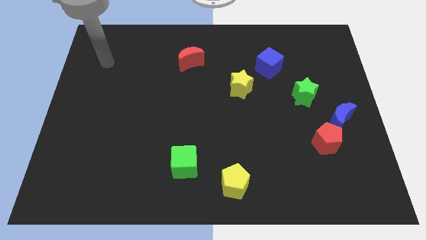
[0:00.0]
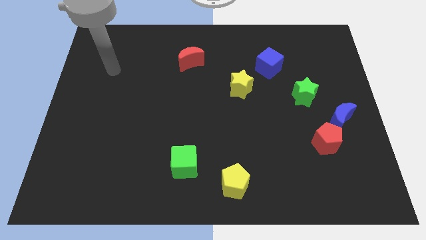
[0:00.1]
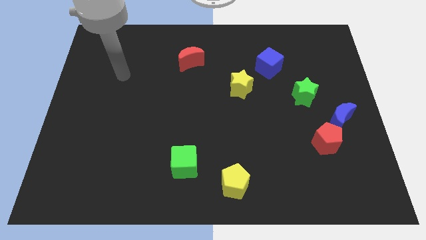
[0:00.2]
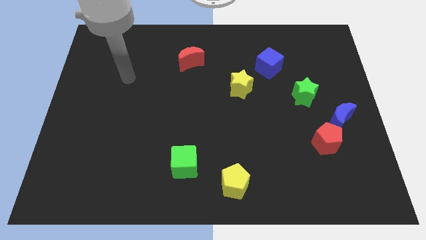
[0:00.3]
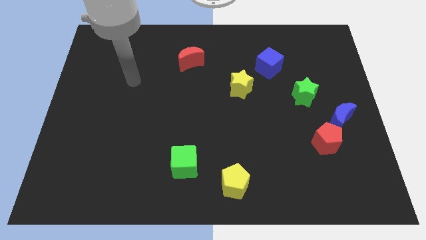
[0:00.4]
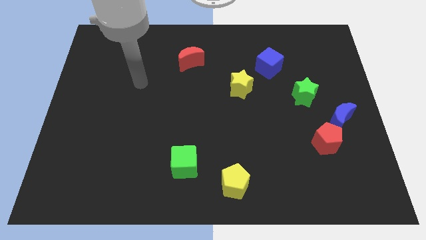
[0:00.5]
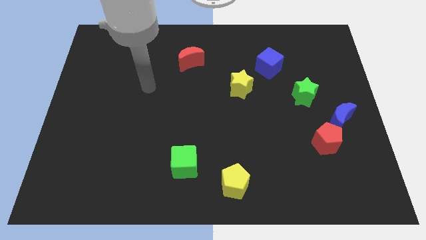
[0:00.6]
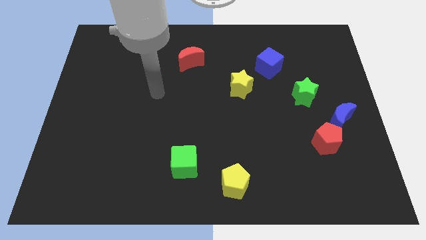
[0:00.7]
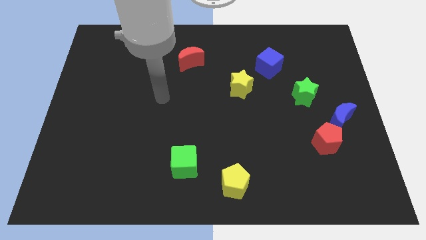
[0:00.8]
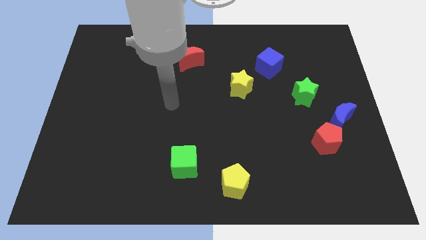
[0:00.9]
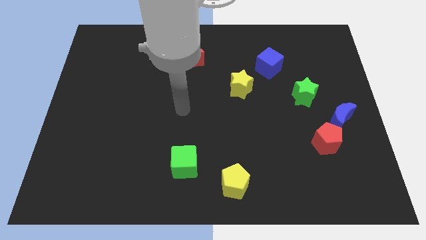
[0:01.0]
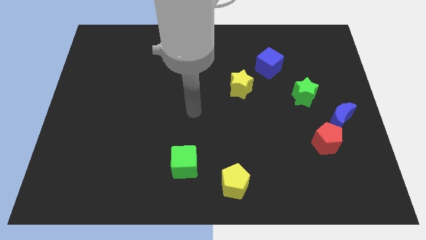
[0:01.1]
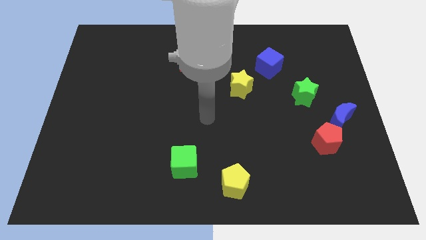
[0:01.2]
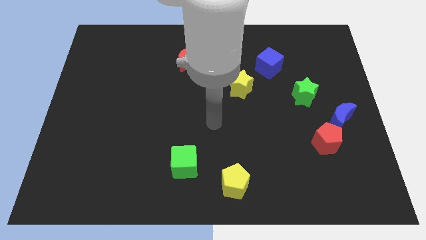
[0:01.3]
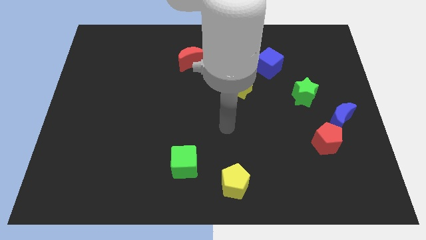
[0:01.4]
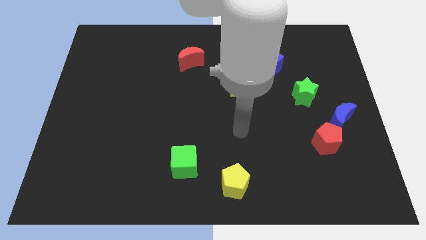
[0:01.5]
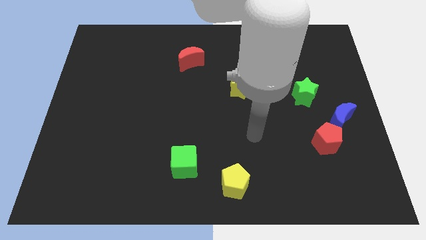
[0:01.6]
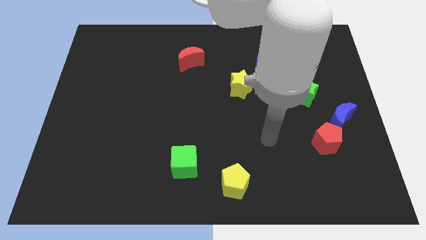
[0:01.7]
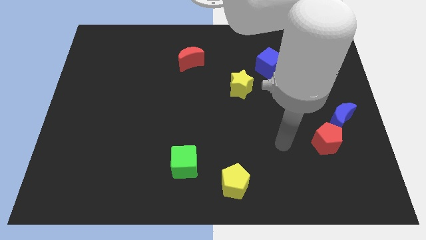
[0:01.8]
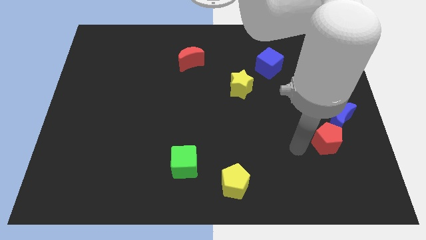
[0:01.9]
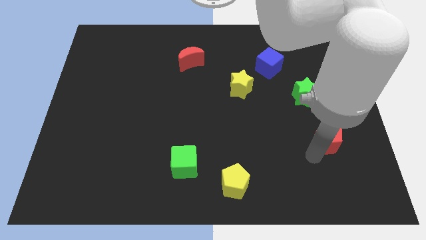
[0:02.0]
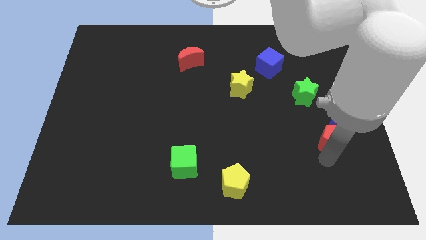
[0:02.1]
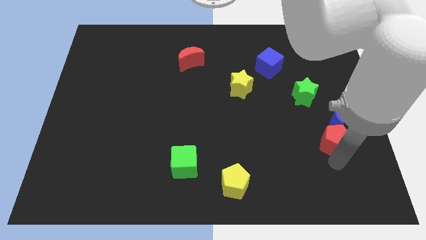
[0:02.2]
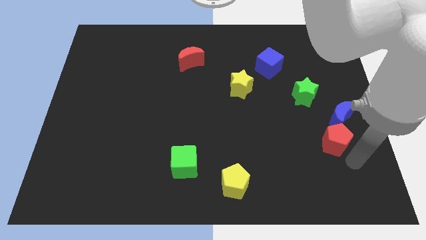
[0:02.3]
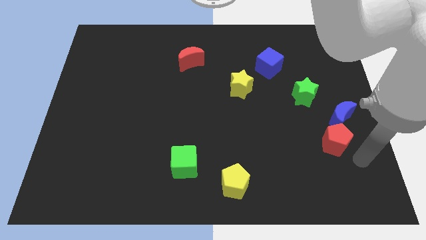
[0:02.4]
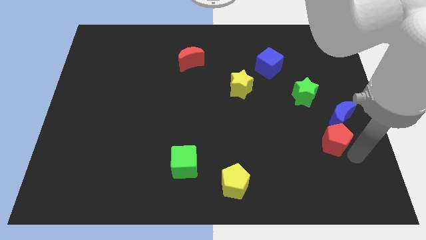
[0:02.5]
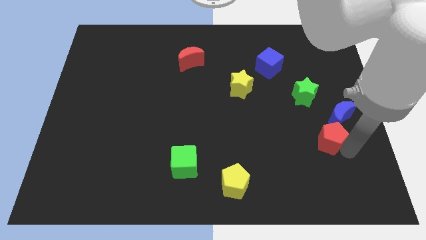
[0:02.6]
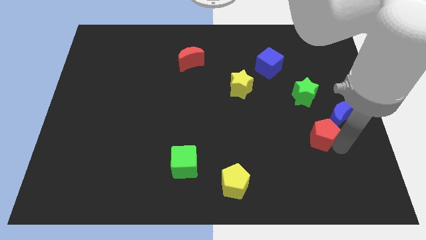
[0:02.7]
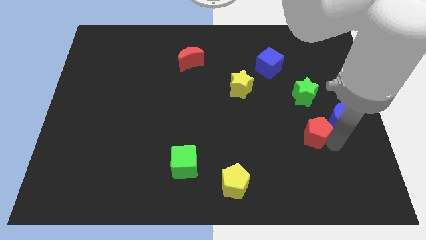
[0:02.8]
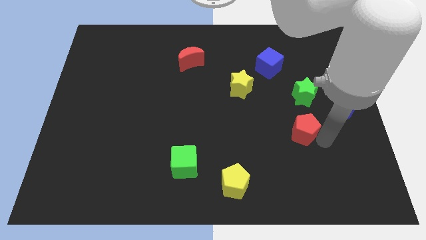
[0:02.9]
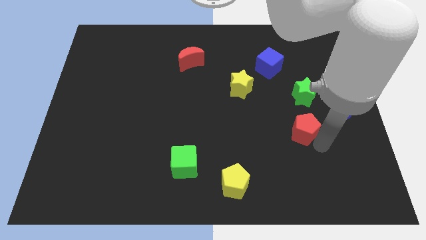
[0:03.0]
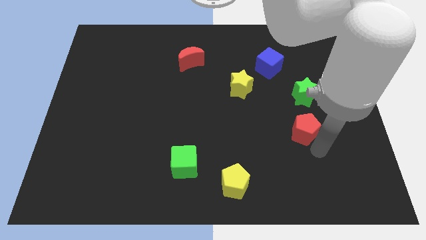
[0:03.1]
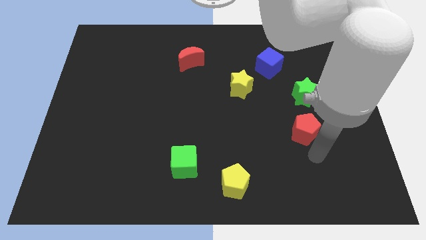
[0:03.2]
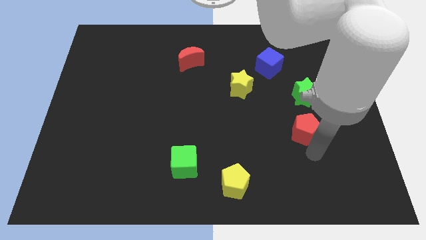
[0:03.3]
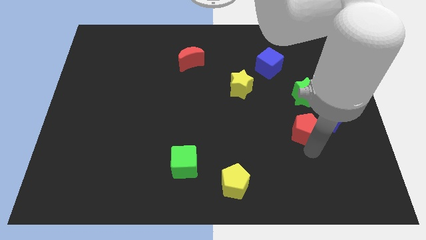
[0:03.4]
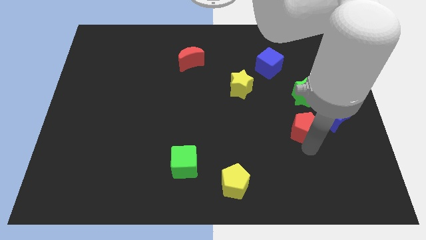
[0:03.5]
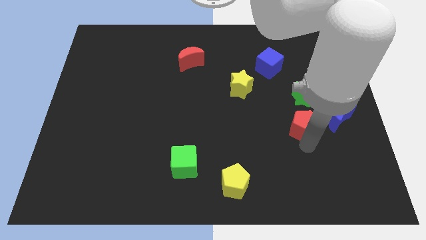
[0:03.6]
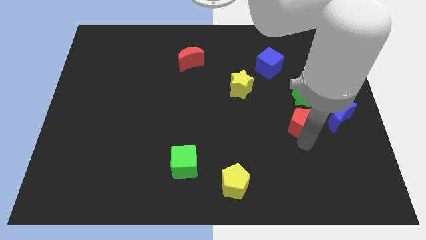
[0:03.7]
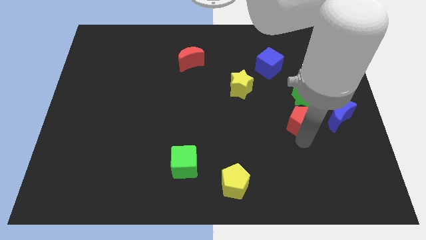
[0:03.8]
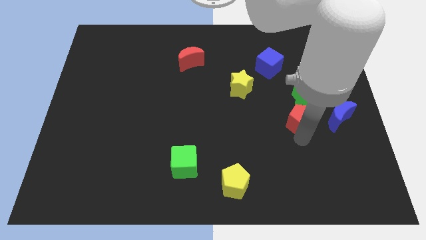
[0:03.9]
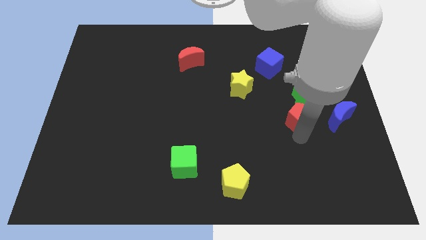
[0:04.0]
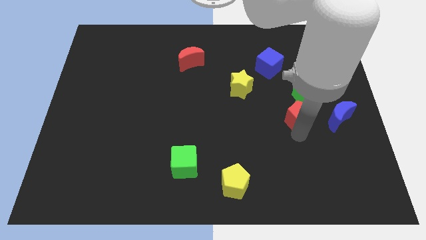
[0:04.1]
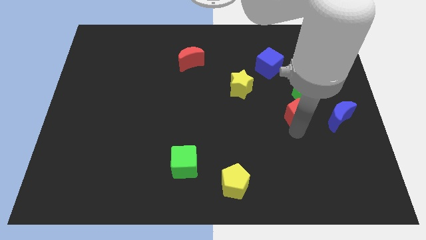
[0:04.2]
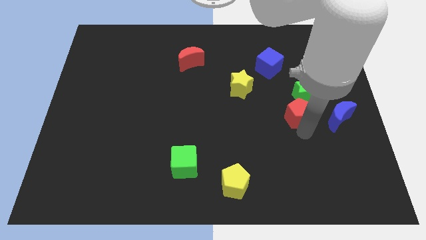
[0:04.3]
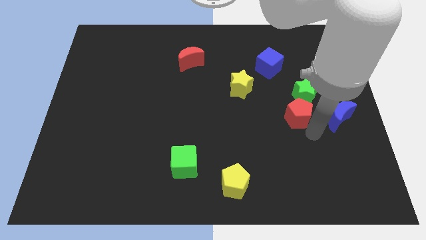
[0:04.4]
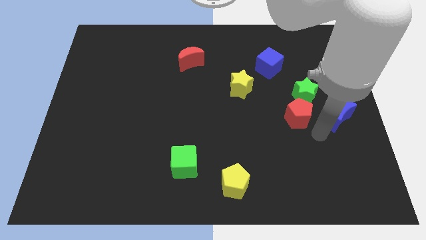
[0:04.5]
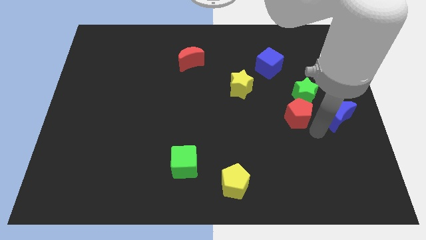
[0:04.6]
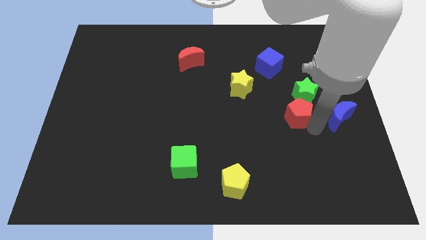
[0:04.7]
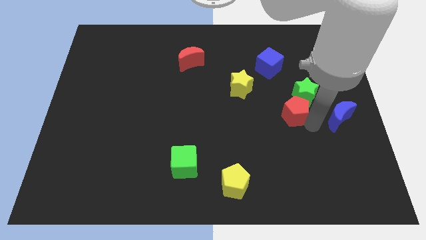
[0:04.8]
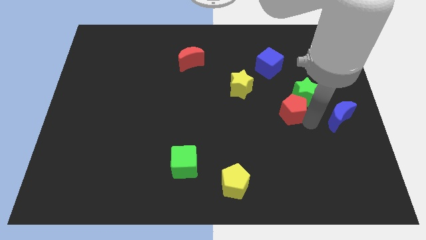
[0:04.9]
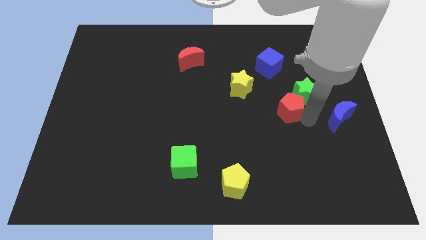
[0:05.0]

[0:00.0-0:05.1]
put the red pentagon to the bottom of the blue cube

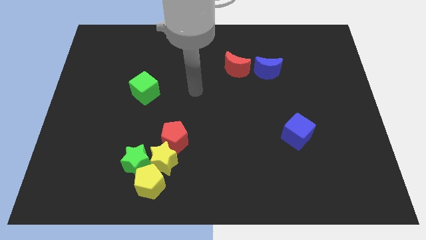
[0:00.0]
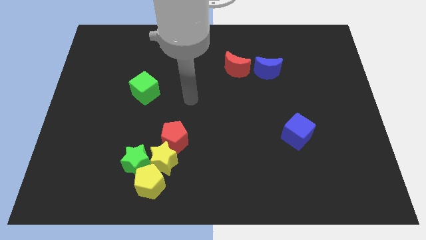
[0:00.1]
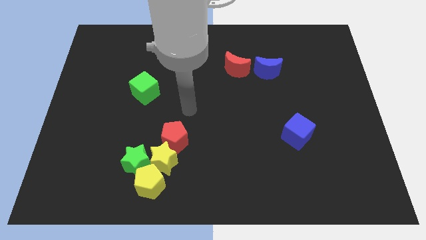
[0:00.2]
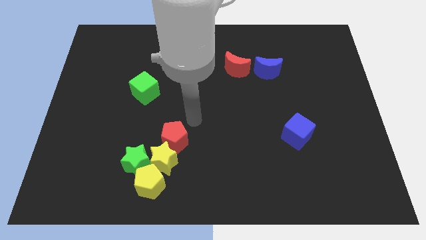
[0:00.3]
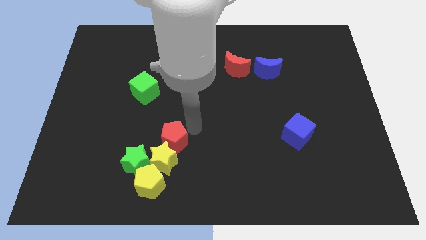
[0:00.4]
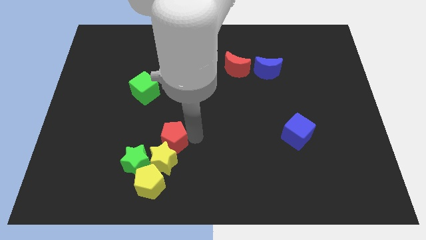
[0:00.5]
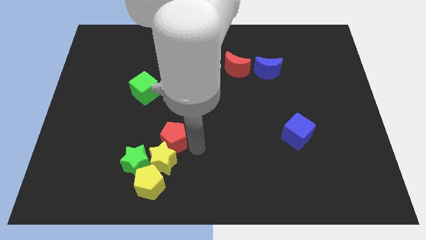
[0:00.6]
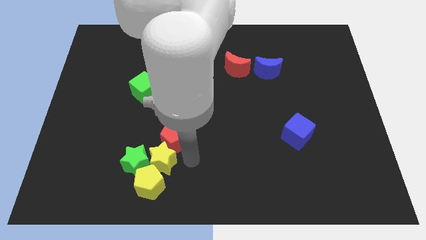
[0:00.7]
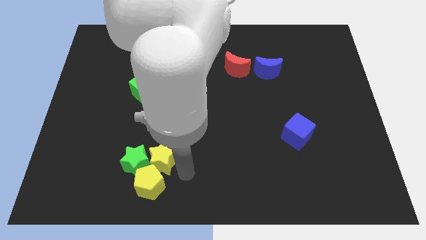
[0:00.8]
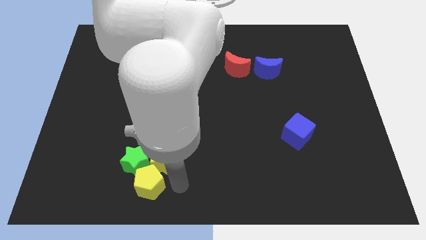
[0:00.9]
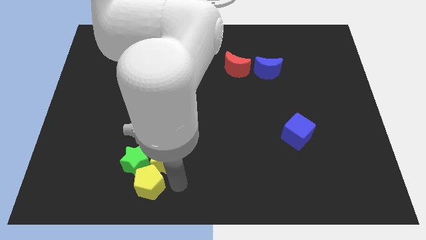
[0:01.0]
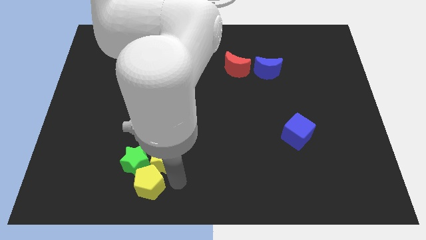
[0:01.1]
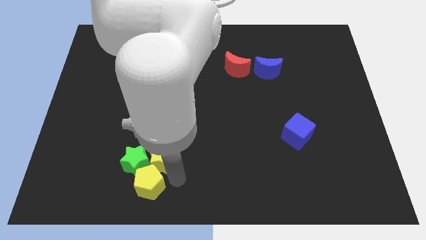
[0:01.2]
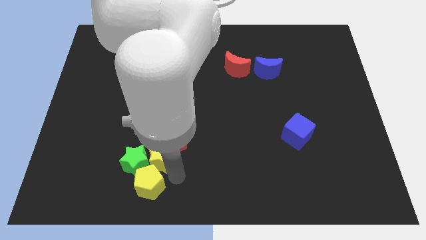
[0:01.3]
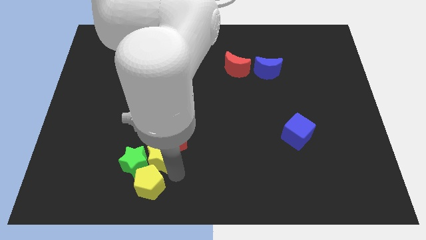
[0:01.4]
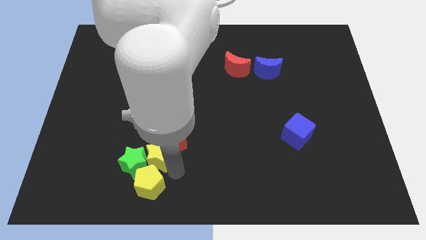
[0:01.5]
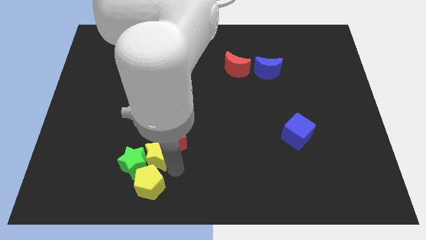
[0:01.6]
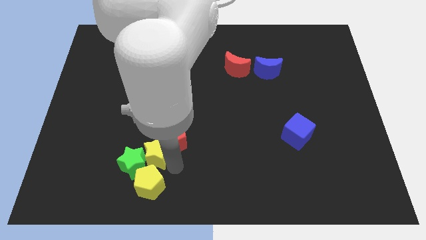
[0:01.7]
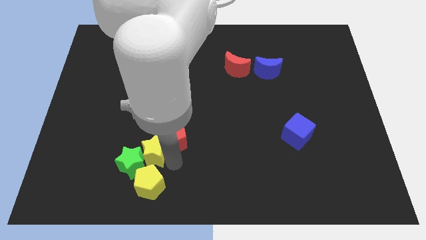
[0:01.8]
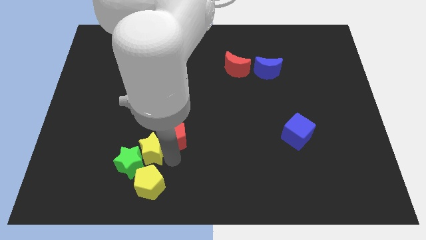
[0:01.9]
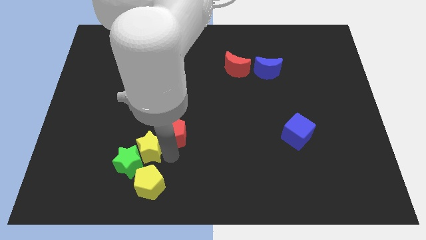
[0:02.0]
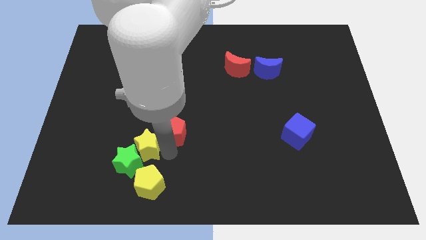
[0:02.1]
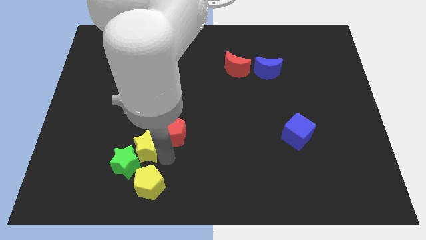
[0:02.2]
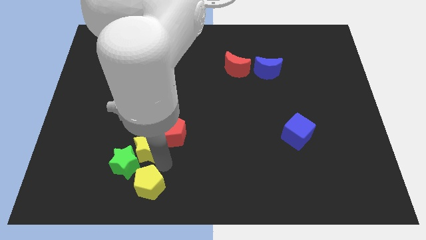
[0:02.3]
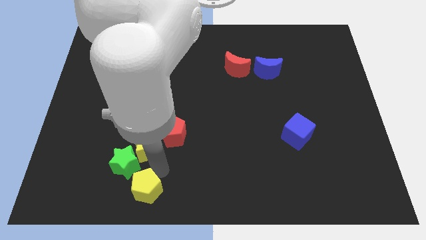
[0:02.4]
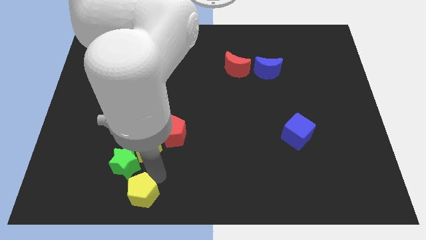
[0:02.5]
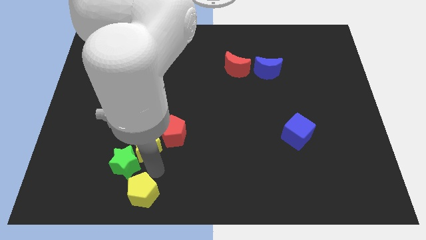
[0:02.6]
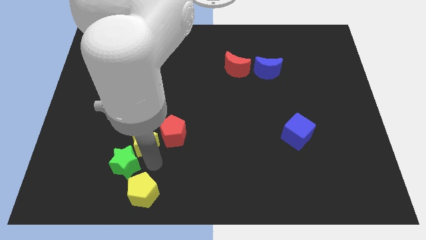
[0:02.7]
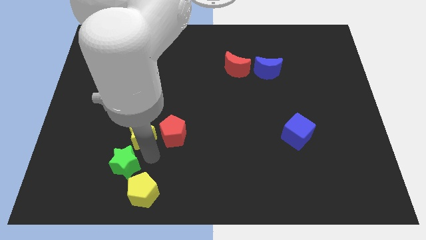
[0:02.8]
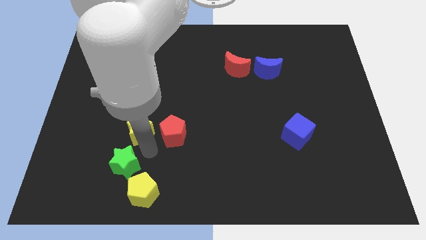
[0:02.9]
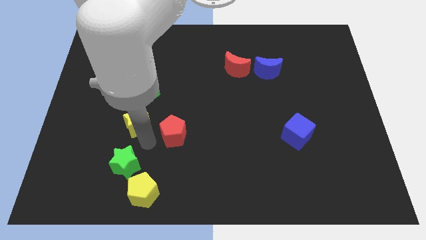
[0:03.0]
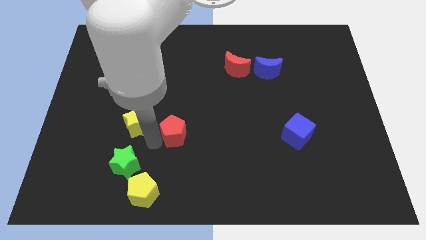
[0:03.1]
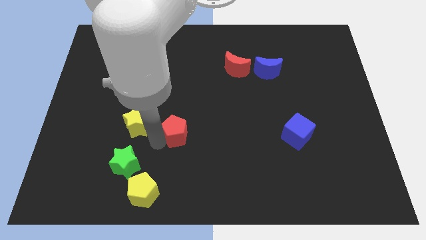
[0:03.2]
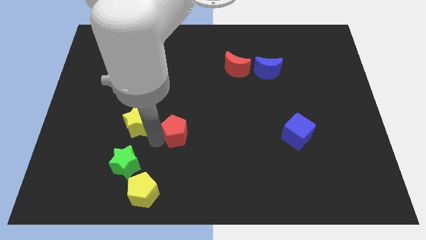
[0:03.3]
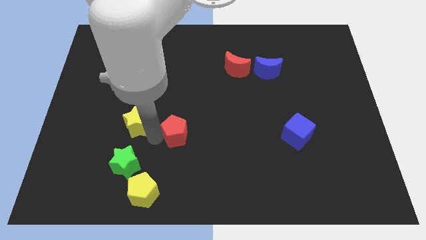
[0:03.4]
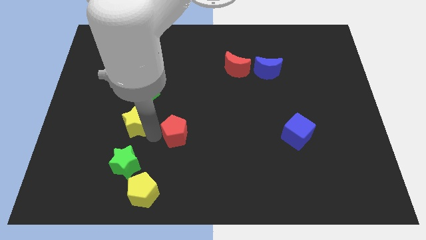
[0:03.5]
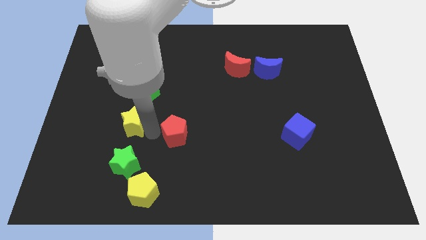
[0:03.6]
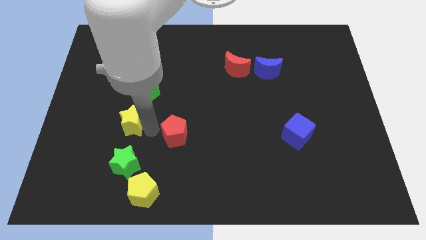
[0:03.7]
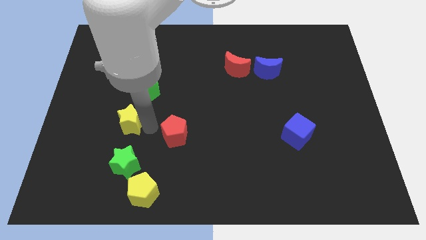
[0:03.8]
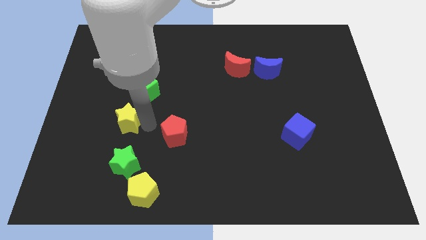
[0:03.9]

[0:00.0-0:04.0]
move the yellow star to the bottom left of the green cube
